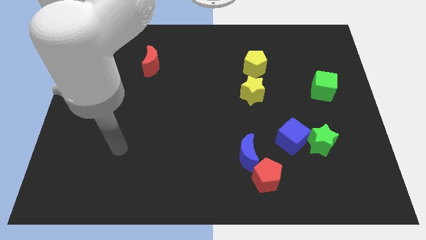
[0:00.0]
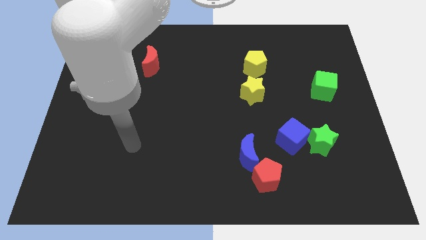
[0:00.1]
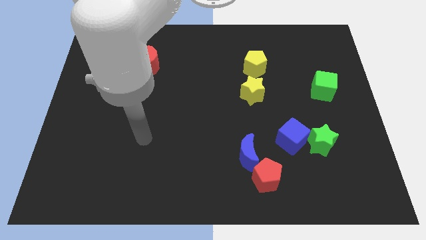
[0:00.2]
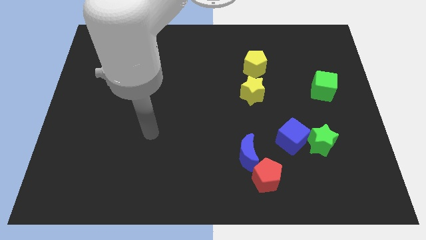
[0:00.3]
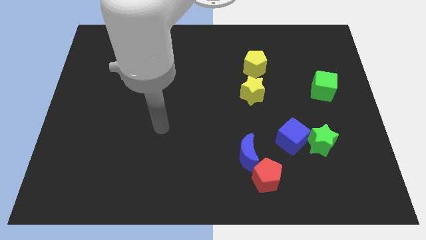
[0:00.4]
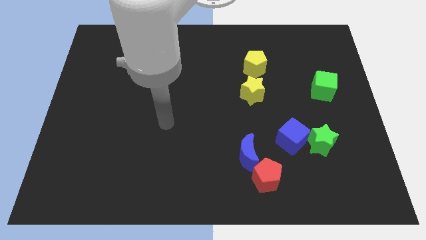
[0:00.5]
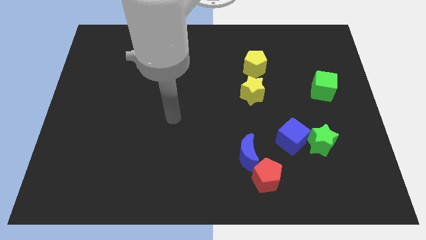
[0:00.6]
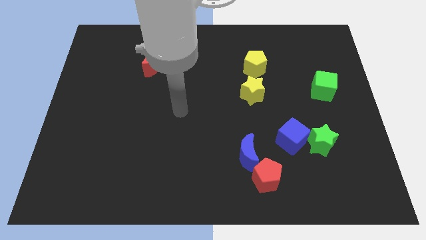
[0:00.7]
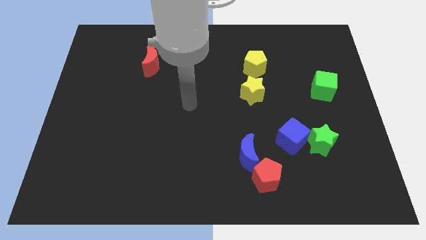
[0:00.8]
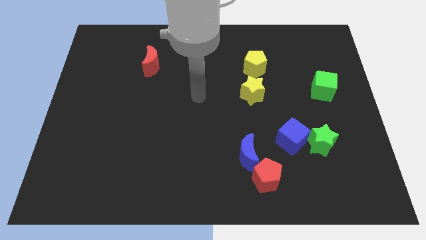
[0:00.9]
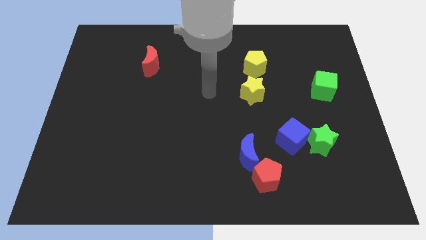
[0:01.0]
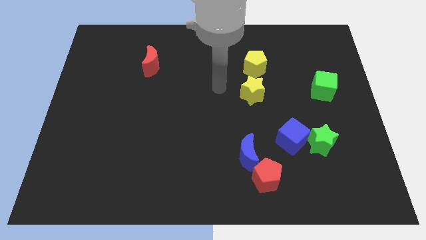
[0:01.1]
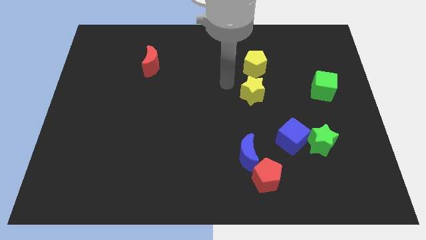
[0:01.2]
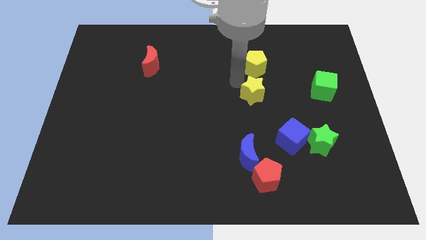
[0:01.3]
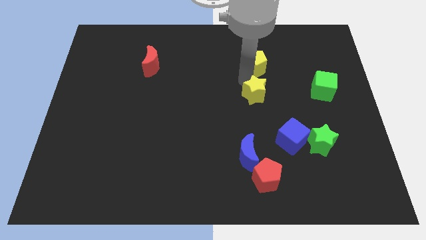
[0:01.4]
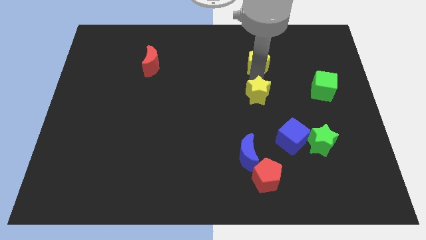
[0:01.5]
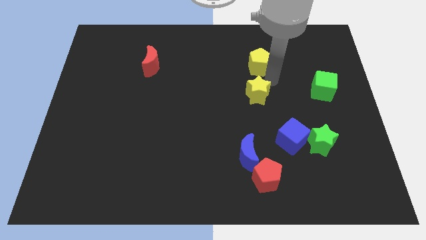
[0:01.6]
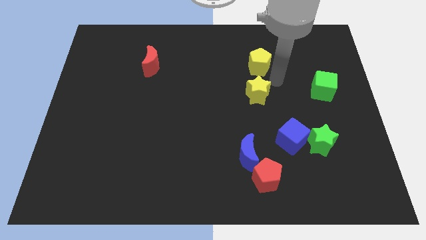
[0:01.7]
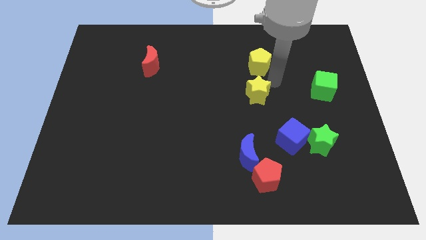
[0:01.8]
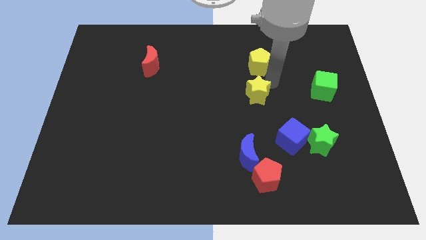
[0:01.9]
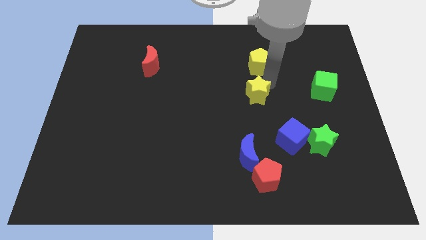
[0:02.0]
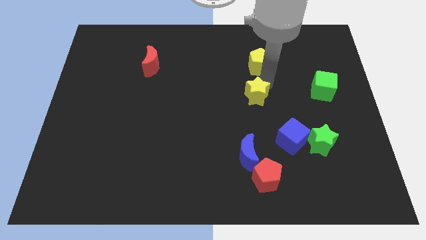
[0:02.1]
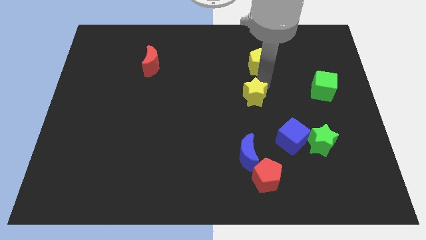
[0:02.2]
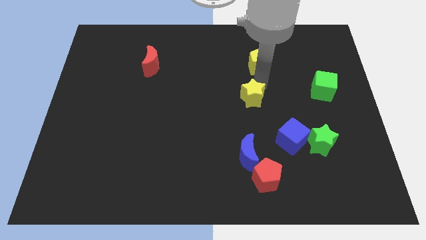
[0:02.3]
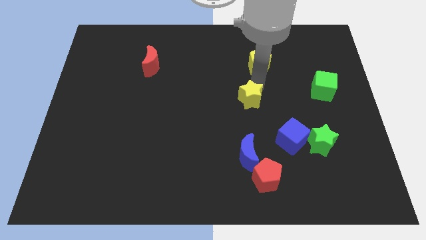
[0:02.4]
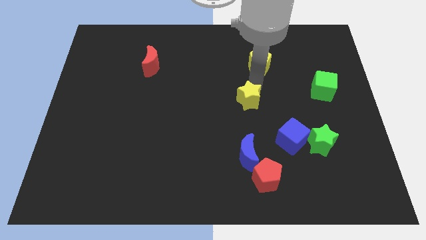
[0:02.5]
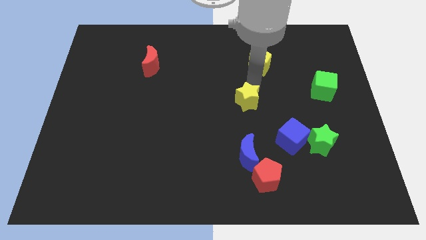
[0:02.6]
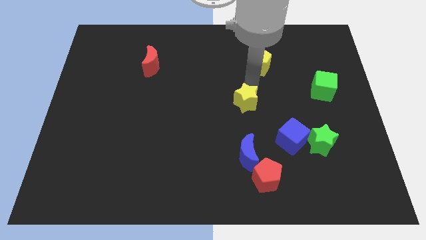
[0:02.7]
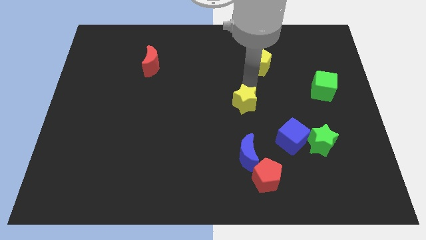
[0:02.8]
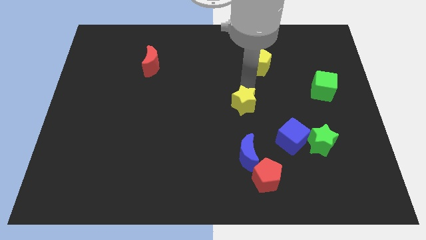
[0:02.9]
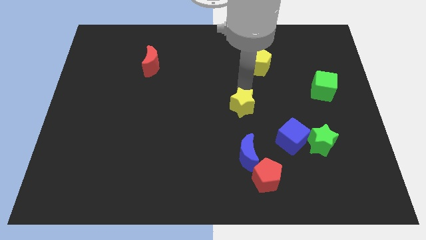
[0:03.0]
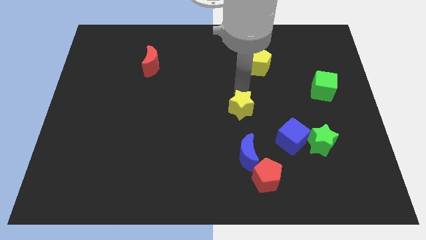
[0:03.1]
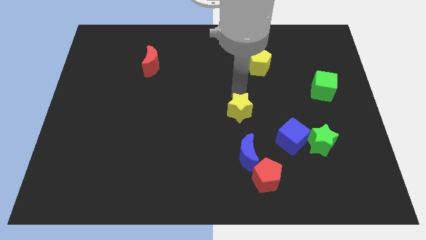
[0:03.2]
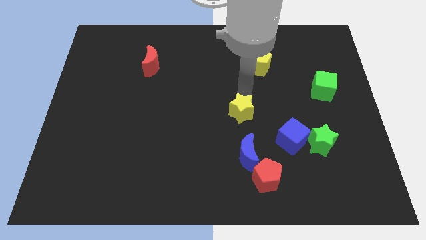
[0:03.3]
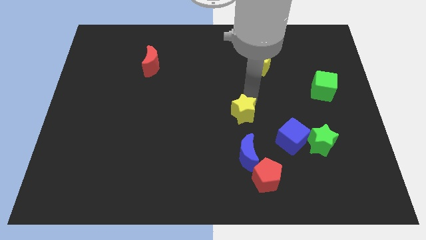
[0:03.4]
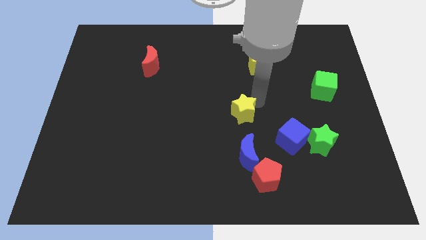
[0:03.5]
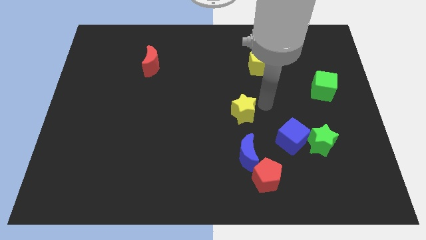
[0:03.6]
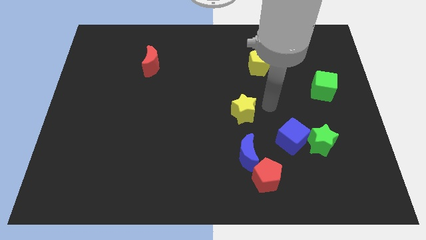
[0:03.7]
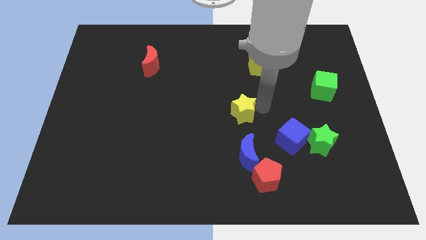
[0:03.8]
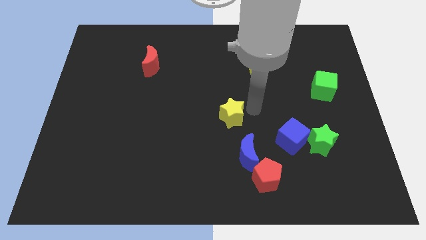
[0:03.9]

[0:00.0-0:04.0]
push the yellow star downwards and left diagonally a little bit

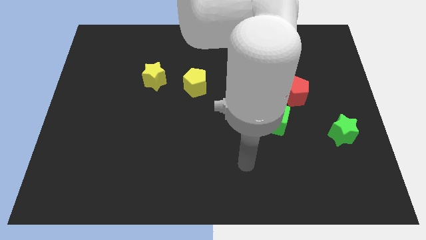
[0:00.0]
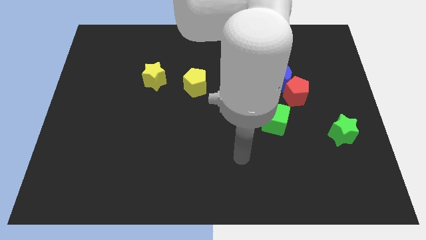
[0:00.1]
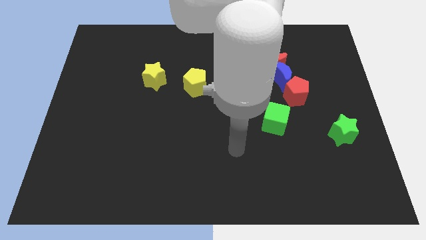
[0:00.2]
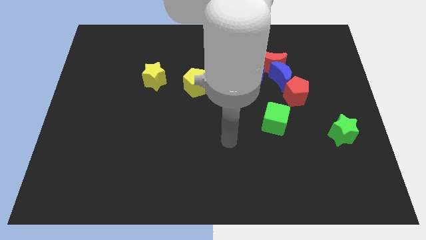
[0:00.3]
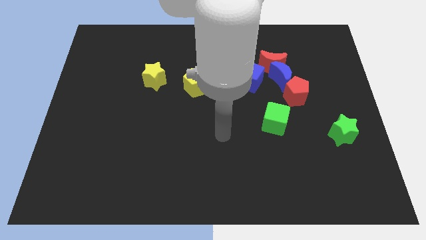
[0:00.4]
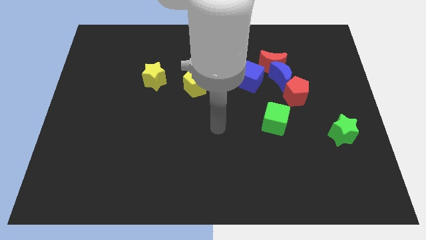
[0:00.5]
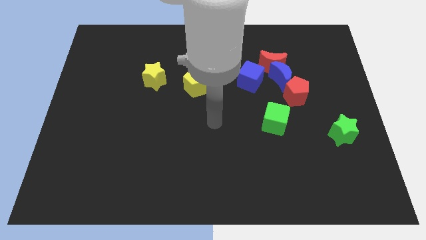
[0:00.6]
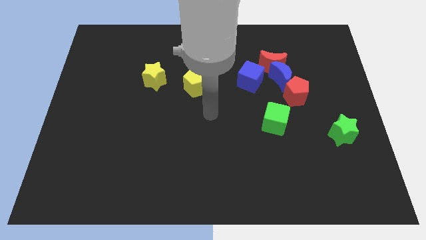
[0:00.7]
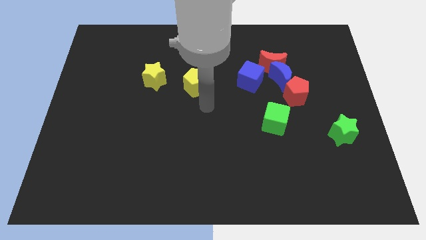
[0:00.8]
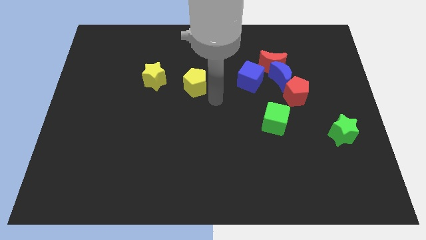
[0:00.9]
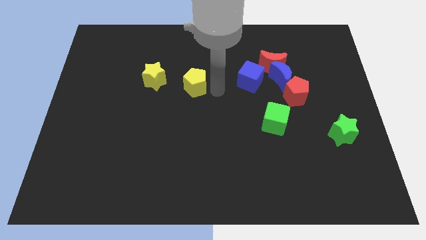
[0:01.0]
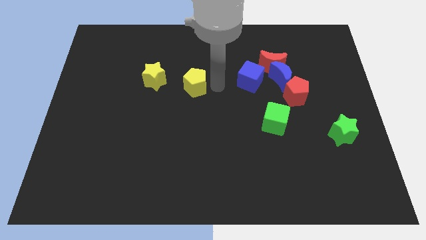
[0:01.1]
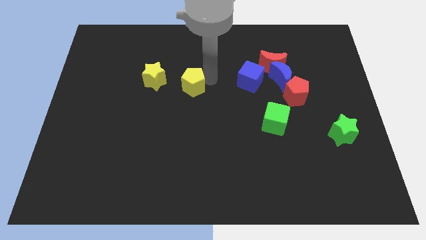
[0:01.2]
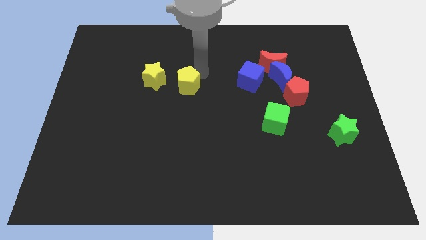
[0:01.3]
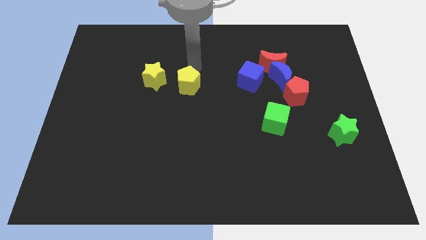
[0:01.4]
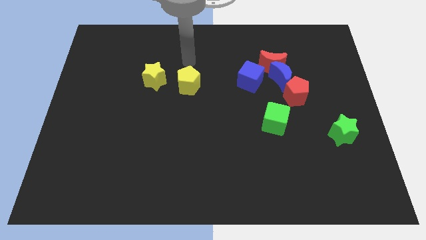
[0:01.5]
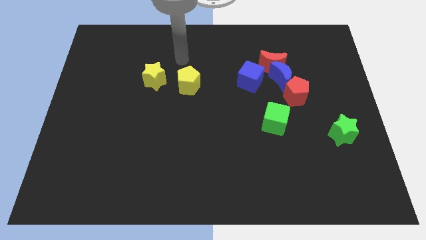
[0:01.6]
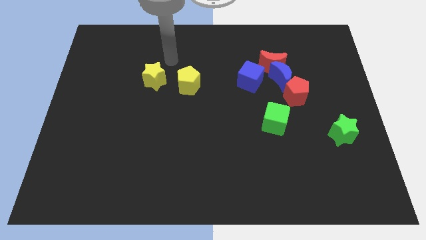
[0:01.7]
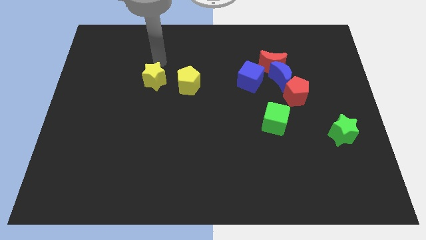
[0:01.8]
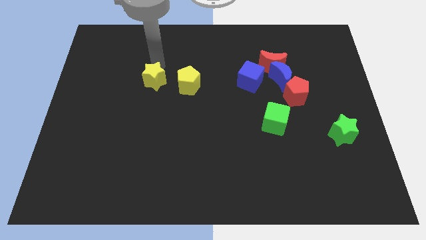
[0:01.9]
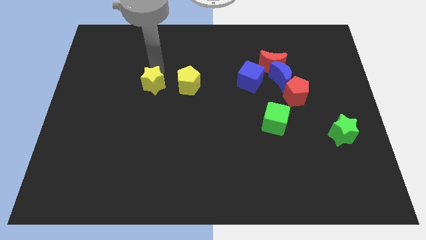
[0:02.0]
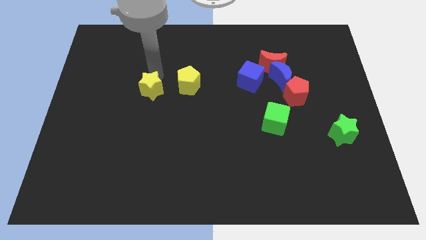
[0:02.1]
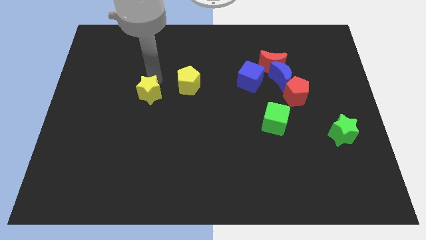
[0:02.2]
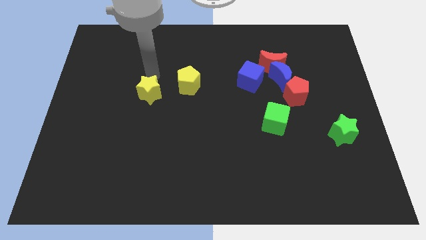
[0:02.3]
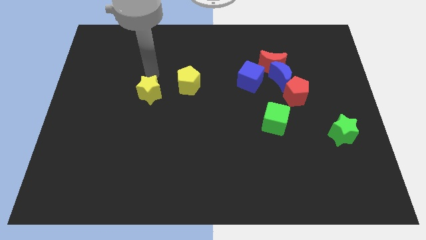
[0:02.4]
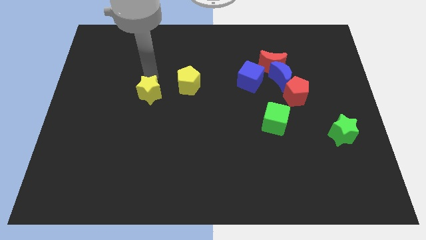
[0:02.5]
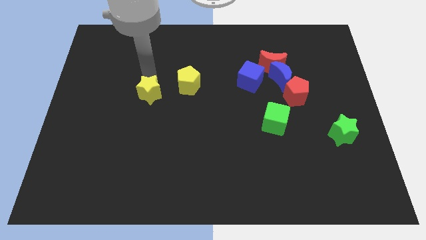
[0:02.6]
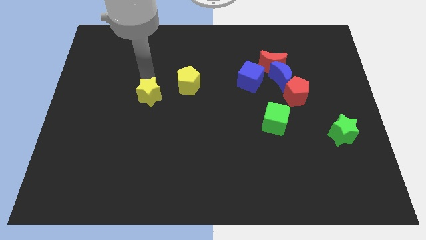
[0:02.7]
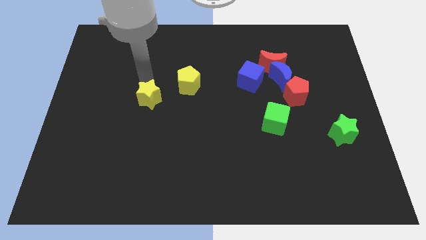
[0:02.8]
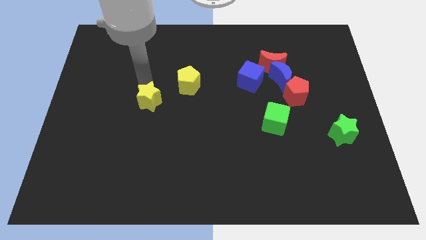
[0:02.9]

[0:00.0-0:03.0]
push the yellow star downwards a little bit

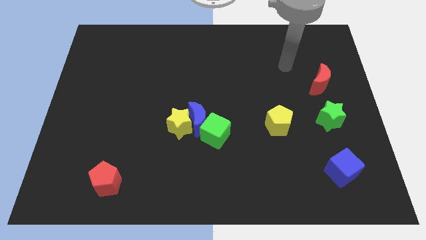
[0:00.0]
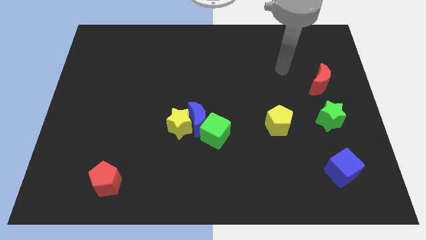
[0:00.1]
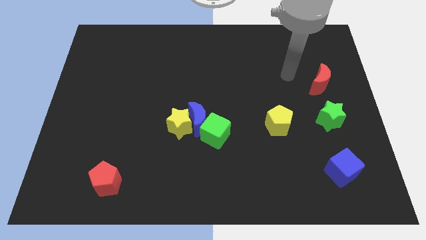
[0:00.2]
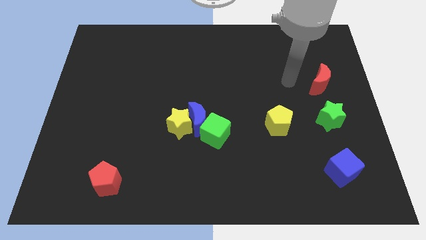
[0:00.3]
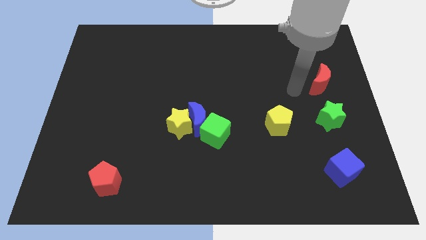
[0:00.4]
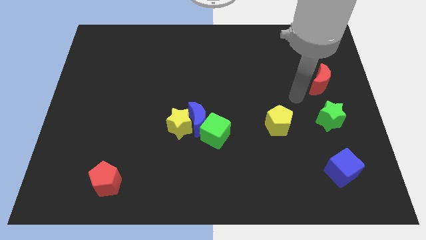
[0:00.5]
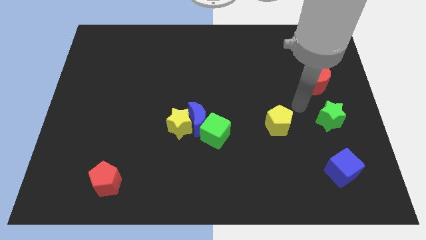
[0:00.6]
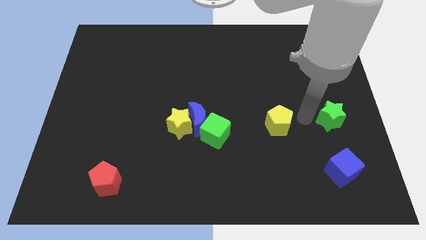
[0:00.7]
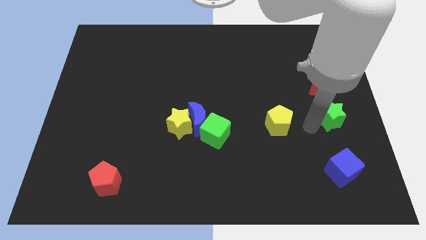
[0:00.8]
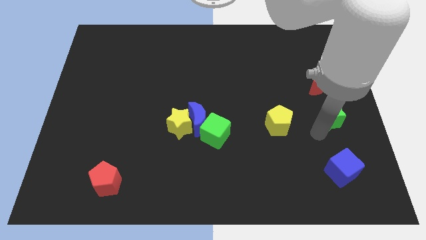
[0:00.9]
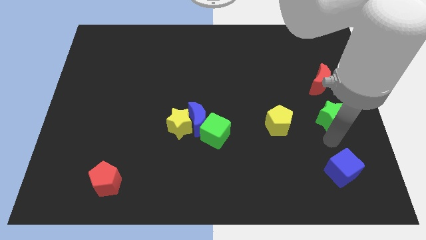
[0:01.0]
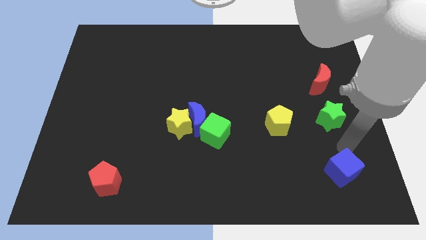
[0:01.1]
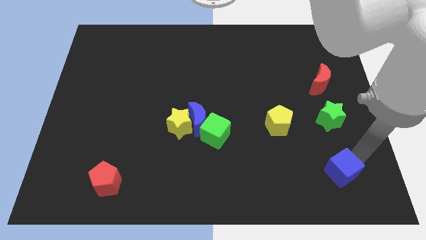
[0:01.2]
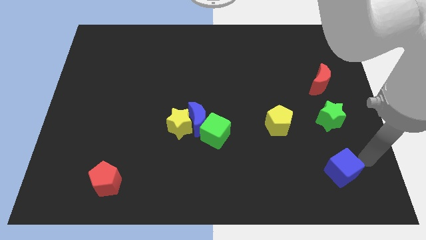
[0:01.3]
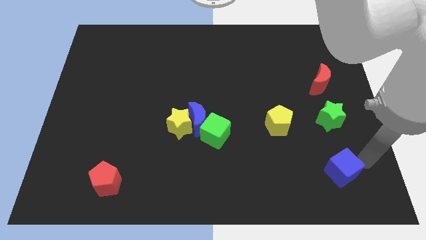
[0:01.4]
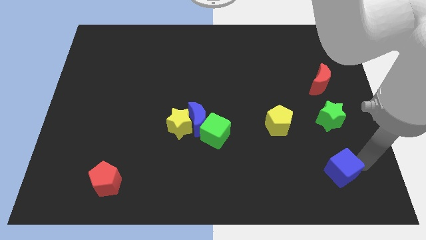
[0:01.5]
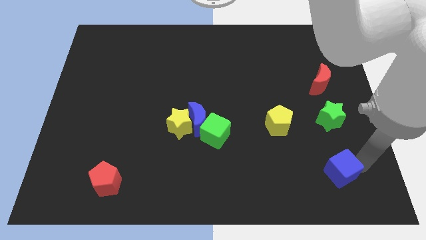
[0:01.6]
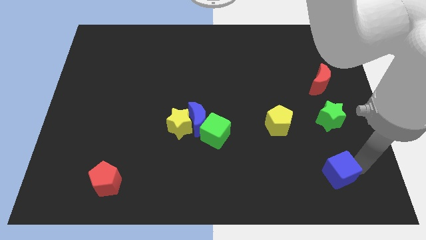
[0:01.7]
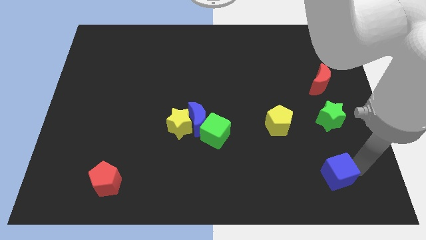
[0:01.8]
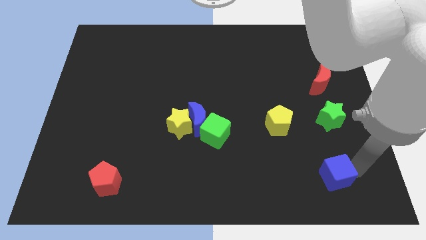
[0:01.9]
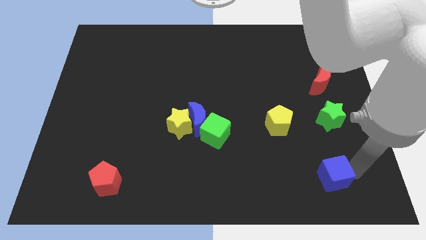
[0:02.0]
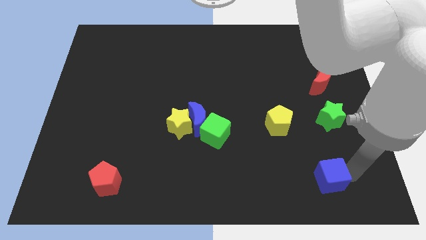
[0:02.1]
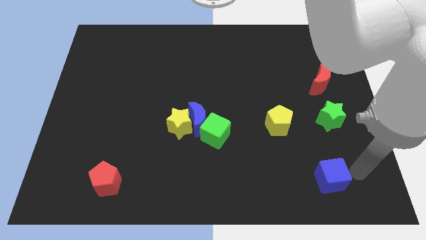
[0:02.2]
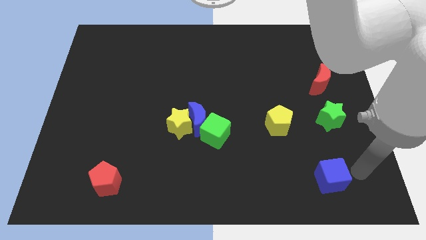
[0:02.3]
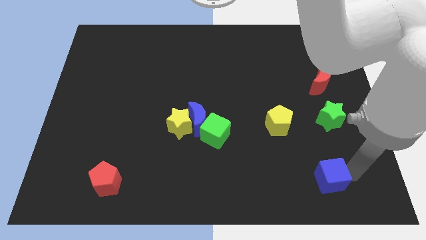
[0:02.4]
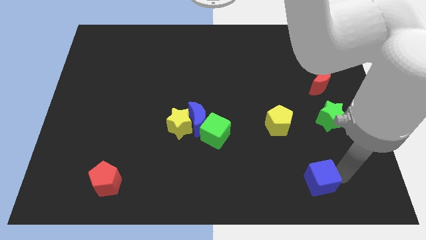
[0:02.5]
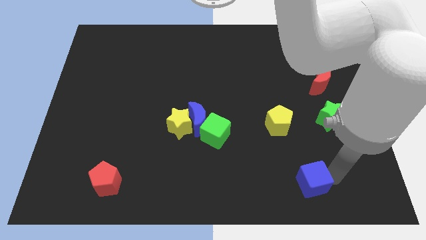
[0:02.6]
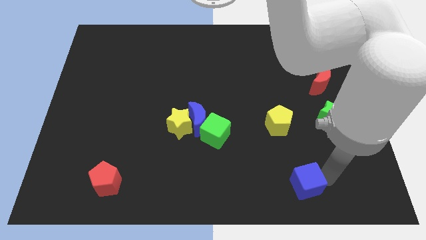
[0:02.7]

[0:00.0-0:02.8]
slightly slide the blue cube to the left
